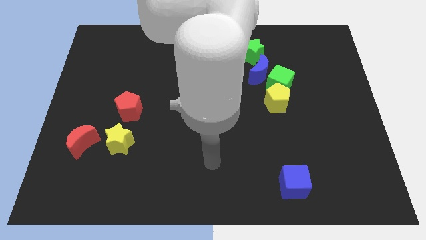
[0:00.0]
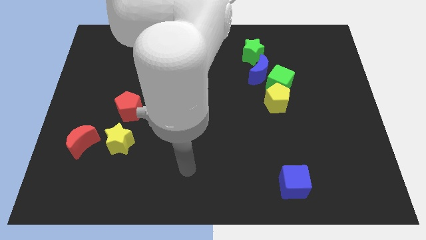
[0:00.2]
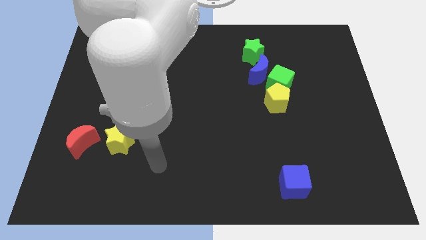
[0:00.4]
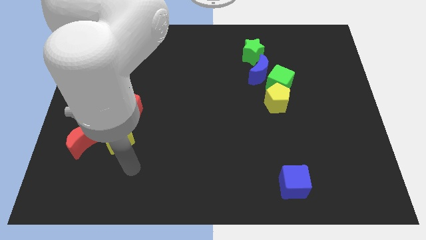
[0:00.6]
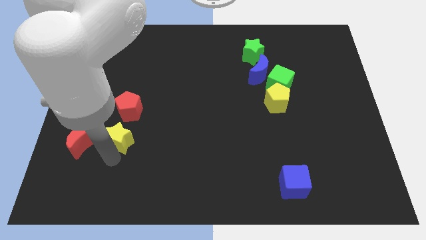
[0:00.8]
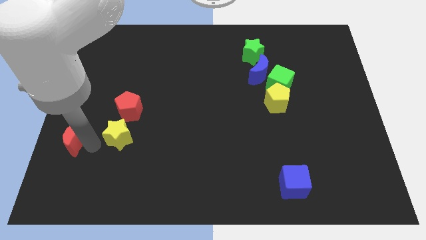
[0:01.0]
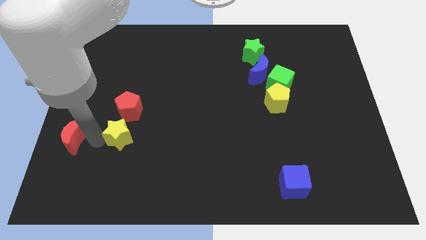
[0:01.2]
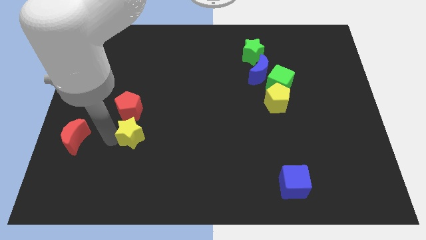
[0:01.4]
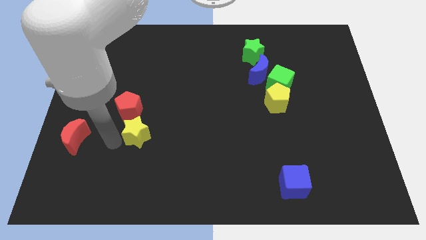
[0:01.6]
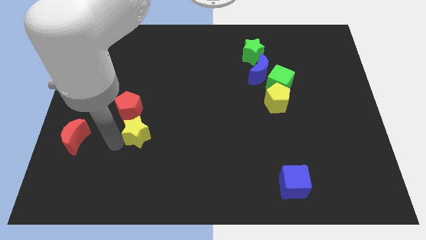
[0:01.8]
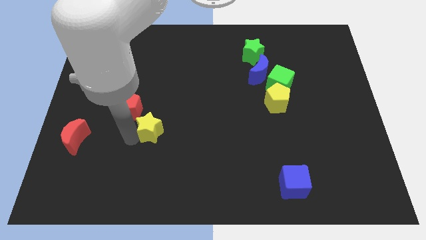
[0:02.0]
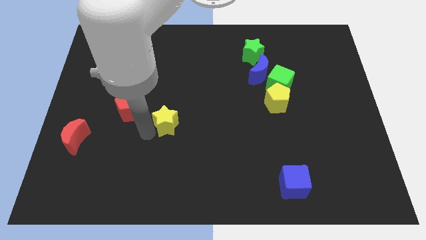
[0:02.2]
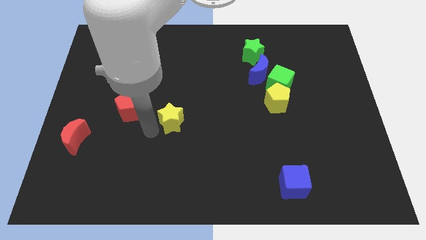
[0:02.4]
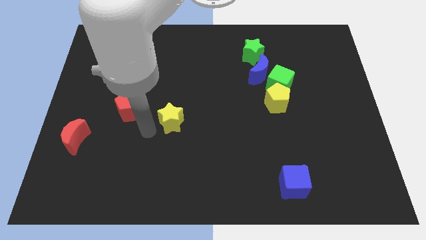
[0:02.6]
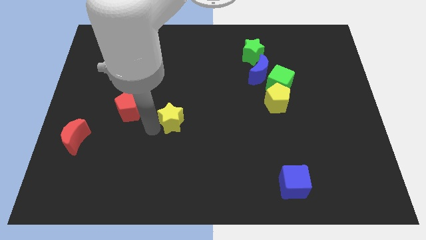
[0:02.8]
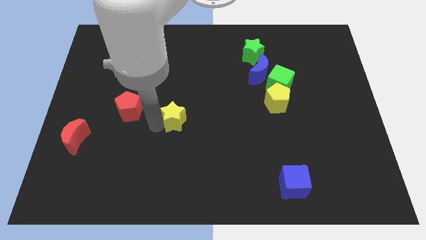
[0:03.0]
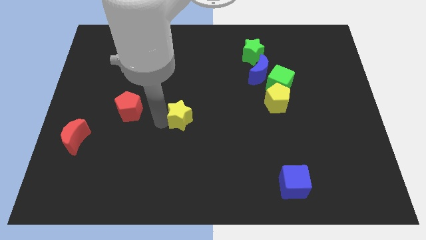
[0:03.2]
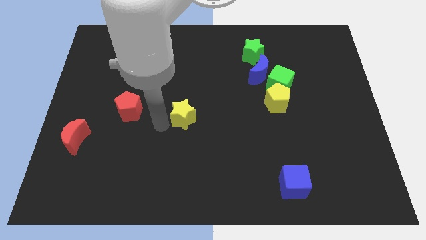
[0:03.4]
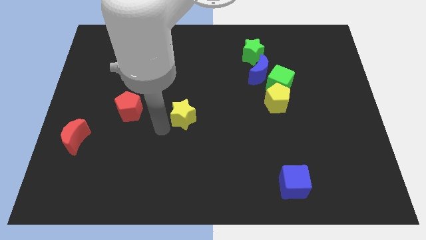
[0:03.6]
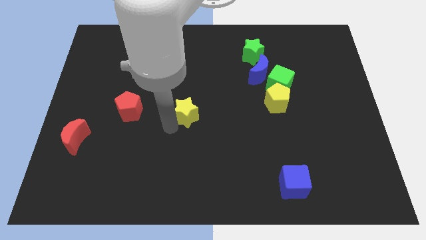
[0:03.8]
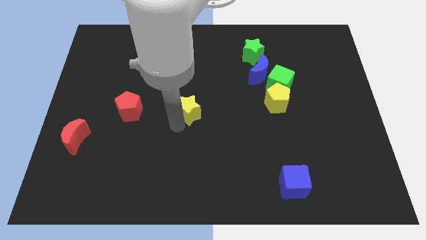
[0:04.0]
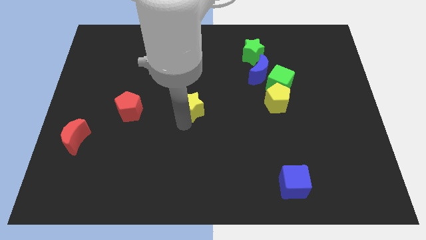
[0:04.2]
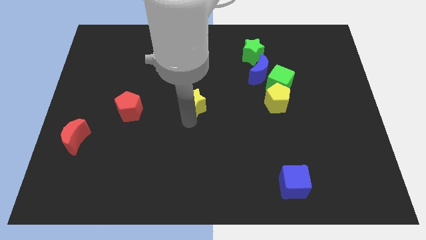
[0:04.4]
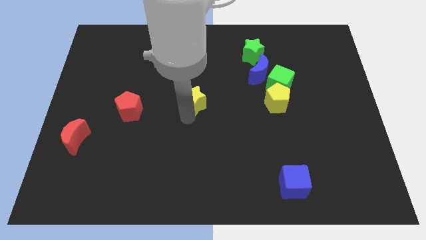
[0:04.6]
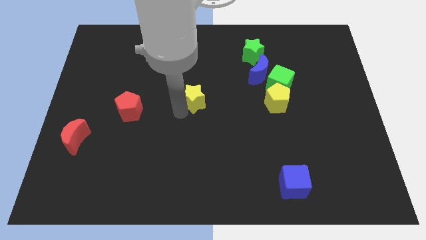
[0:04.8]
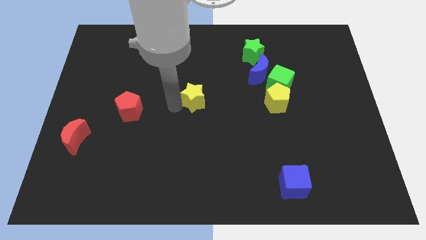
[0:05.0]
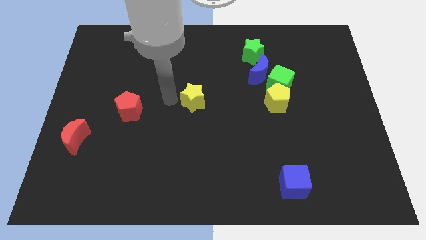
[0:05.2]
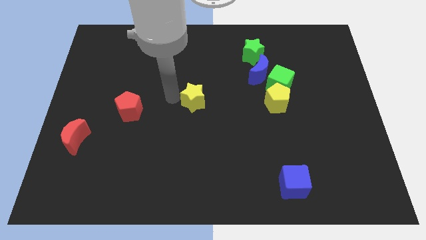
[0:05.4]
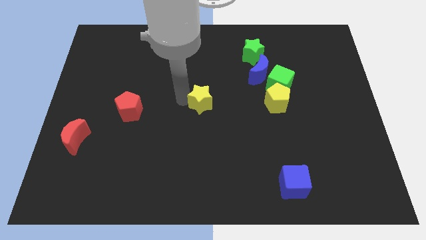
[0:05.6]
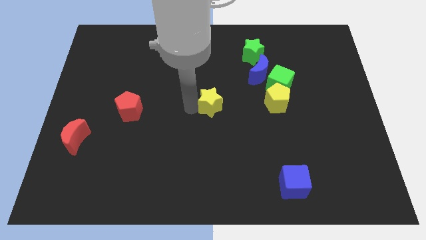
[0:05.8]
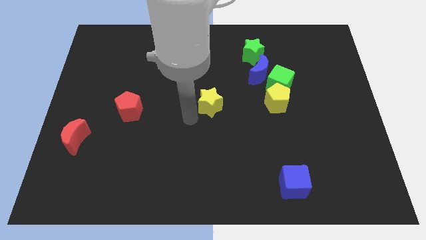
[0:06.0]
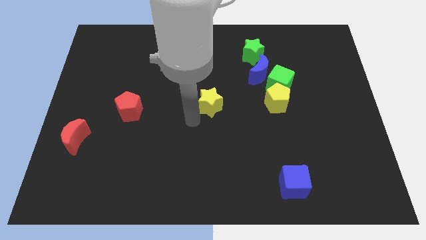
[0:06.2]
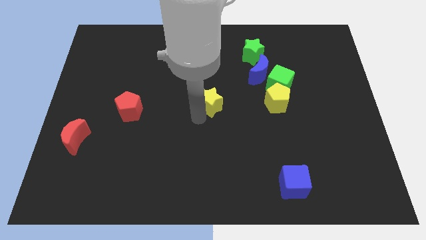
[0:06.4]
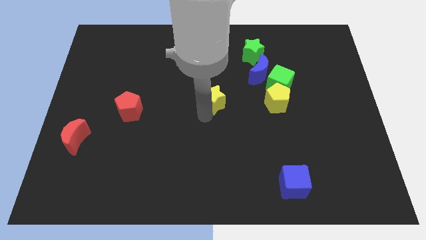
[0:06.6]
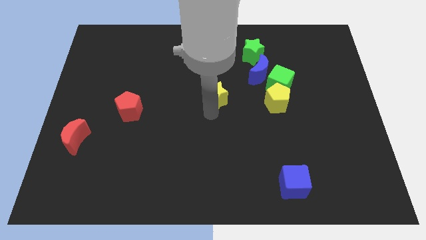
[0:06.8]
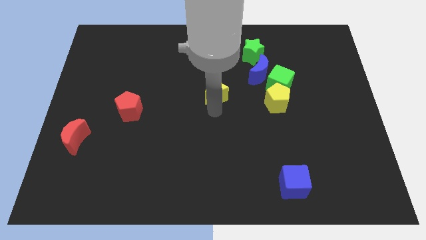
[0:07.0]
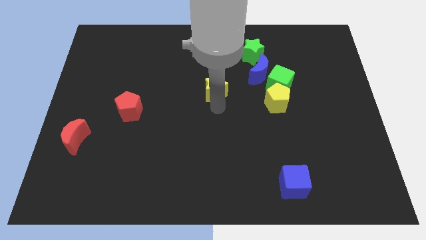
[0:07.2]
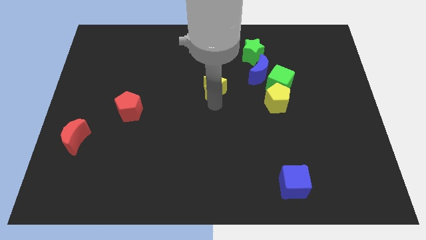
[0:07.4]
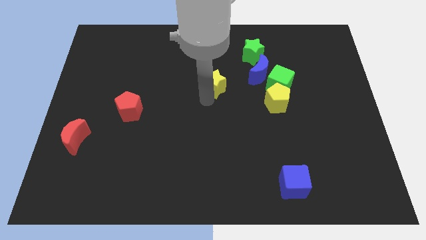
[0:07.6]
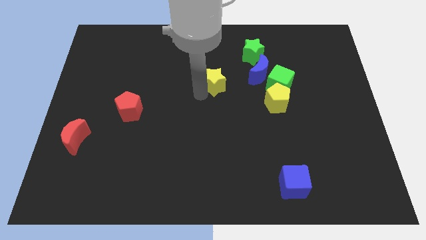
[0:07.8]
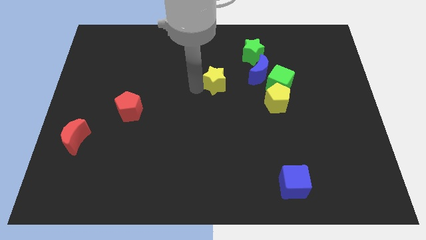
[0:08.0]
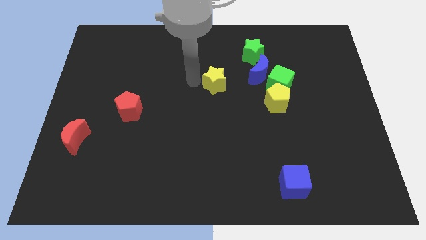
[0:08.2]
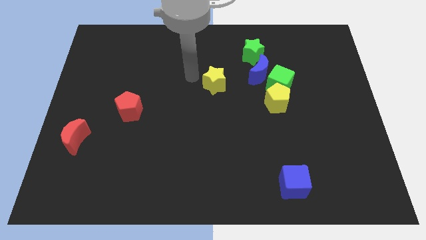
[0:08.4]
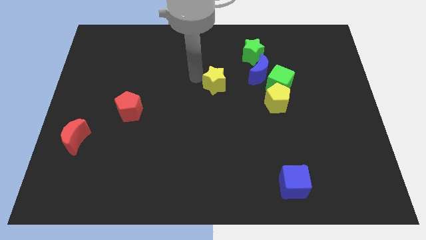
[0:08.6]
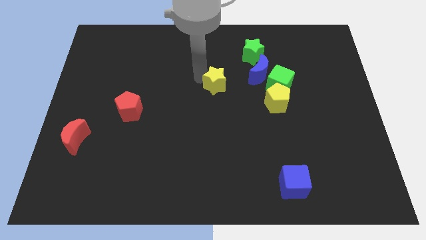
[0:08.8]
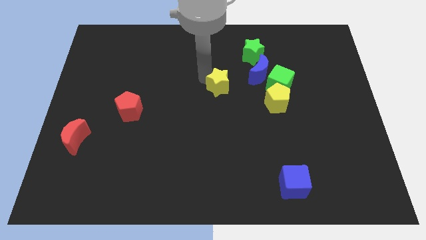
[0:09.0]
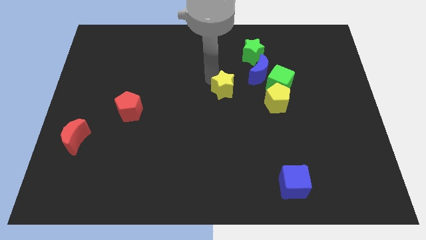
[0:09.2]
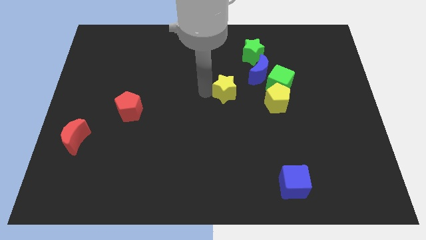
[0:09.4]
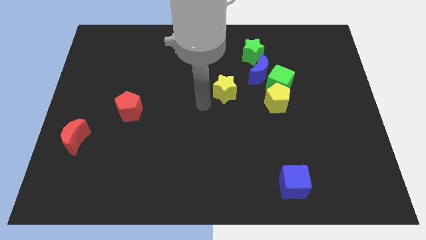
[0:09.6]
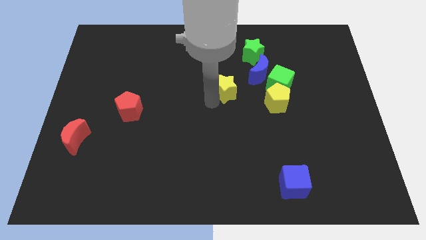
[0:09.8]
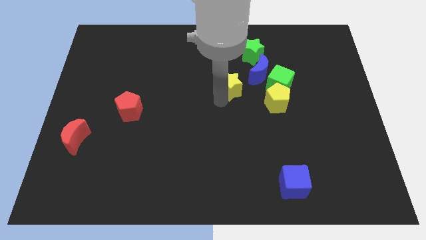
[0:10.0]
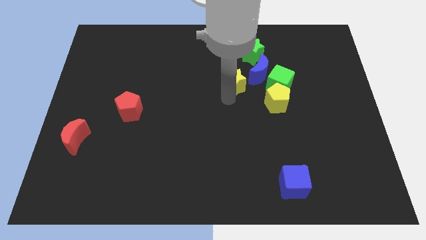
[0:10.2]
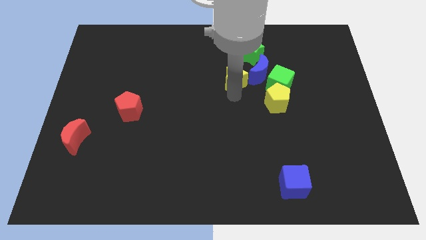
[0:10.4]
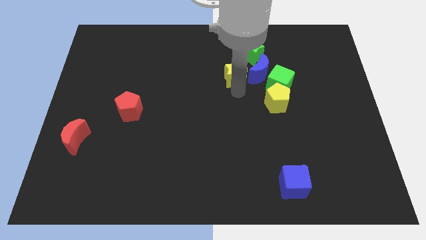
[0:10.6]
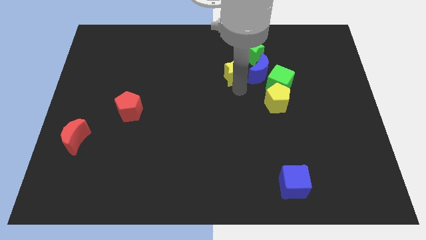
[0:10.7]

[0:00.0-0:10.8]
move the yellow star to the blue moon
